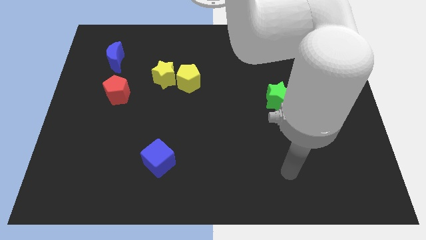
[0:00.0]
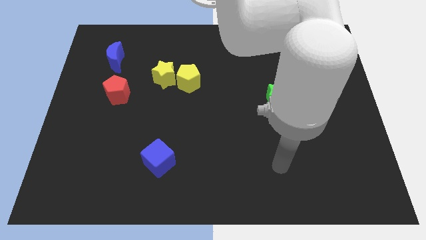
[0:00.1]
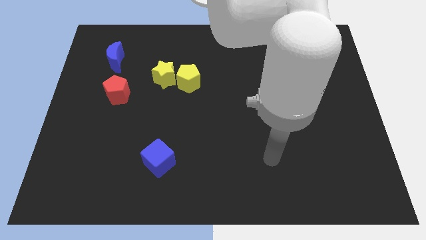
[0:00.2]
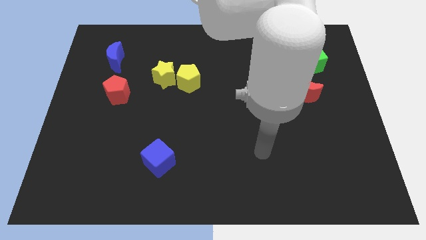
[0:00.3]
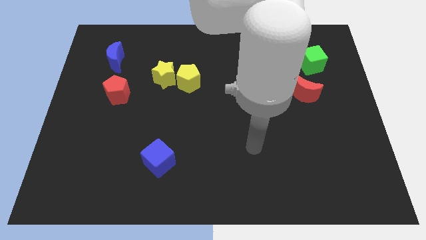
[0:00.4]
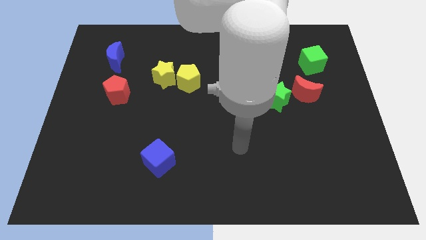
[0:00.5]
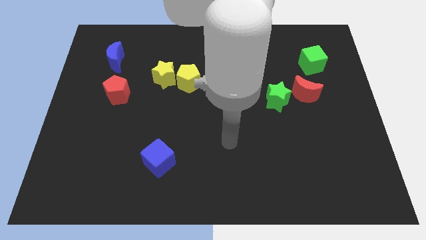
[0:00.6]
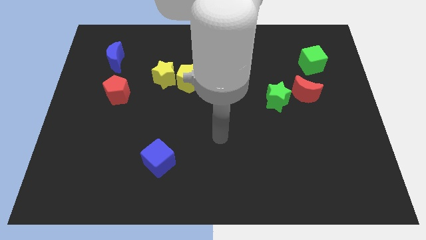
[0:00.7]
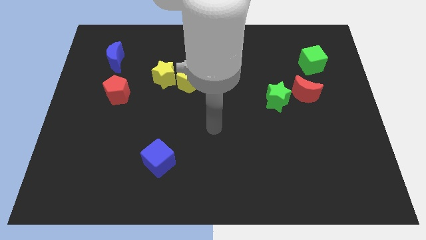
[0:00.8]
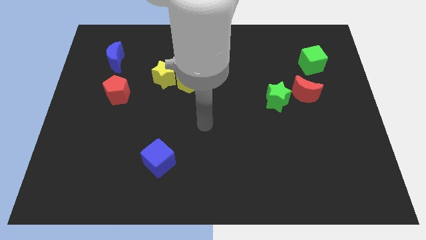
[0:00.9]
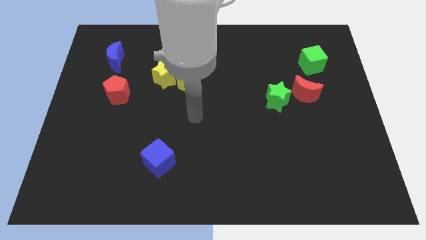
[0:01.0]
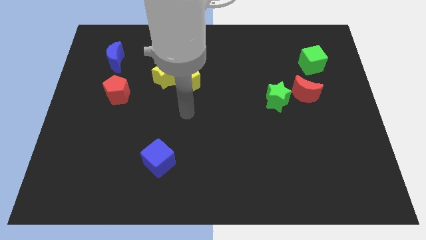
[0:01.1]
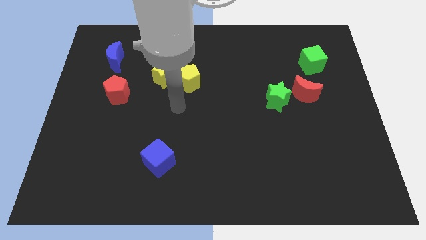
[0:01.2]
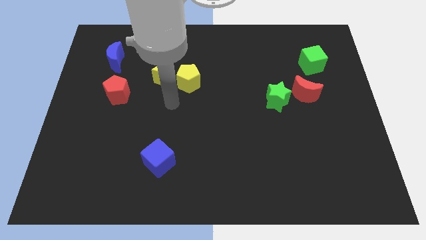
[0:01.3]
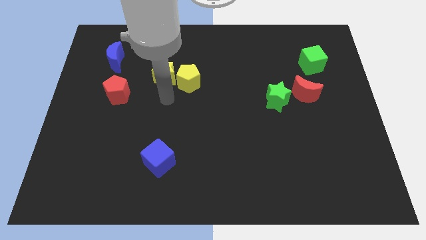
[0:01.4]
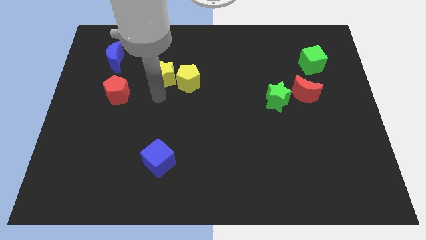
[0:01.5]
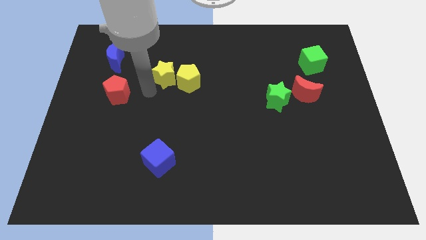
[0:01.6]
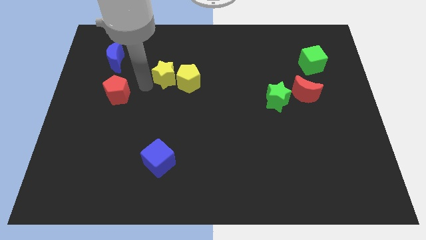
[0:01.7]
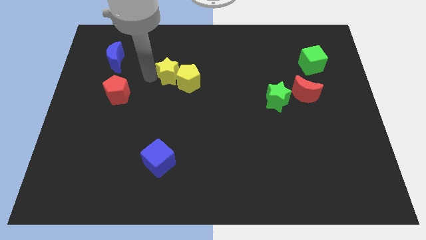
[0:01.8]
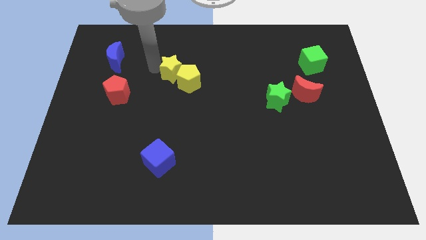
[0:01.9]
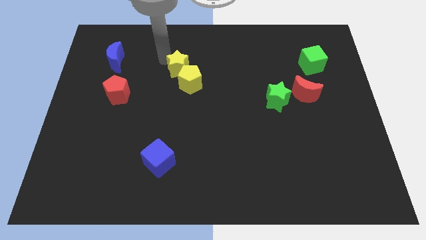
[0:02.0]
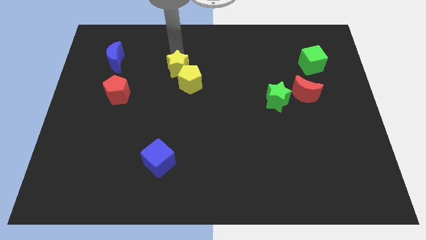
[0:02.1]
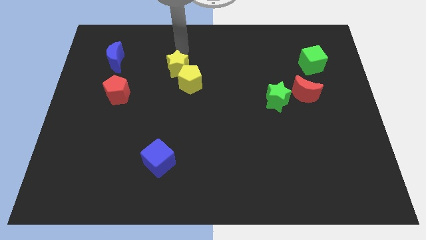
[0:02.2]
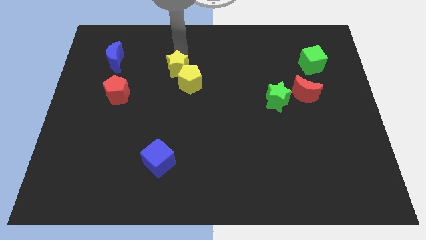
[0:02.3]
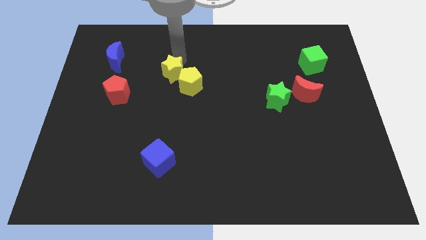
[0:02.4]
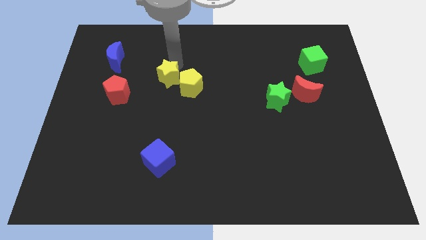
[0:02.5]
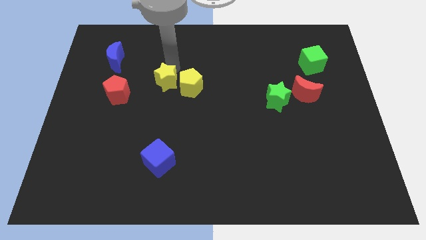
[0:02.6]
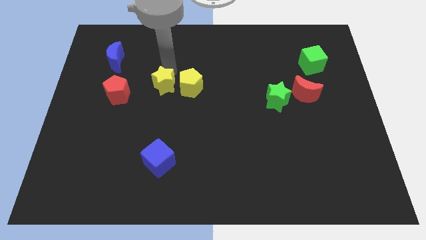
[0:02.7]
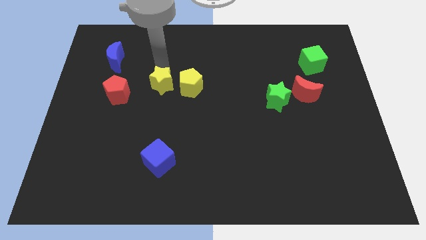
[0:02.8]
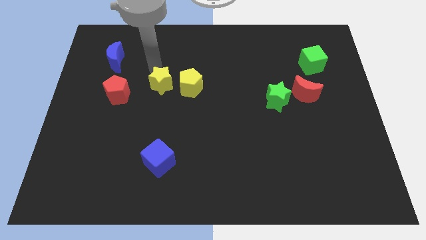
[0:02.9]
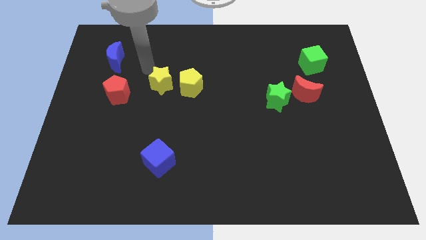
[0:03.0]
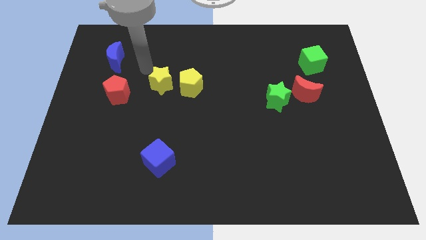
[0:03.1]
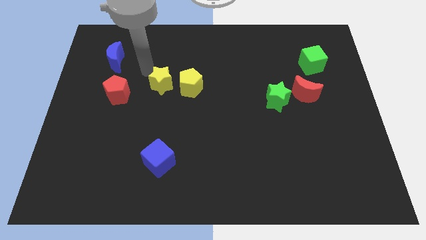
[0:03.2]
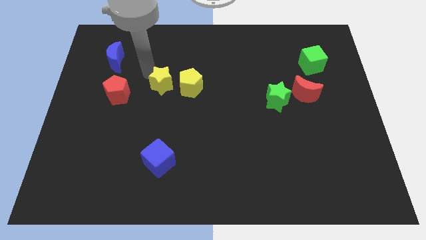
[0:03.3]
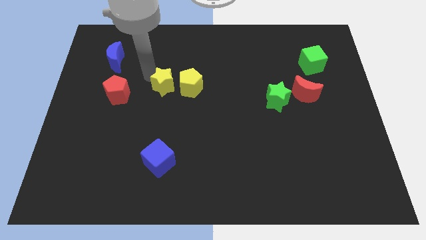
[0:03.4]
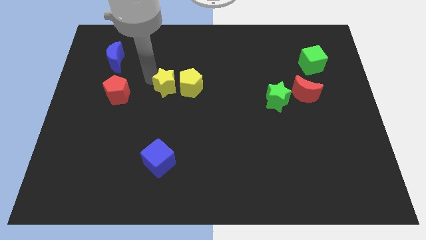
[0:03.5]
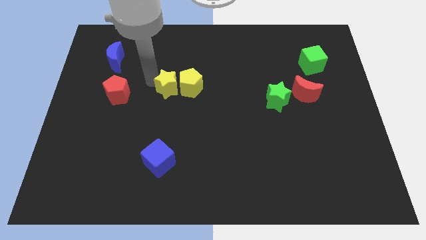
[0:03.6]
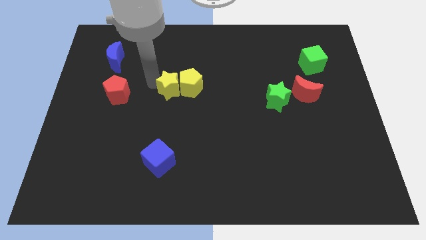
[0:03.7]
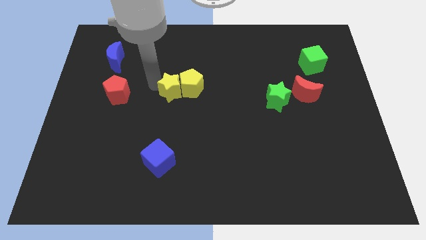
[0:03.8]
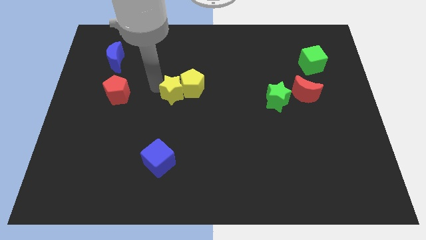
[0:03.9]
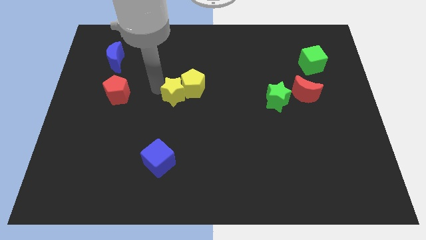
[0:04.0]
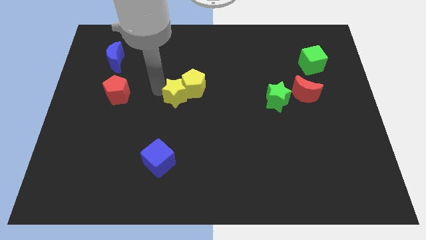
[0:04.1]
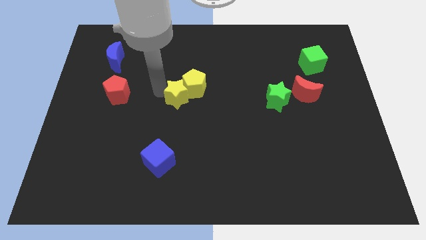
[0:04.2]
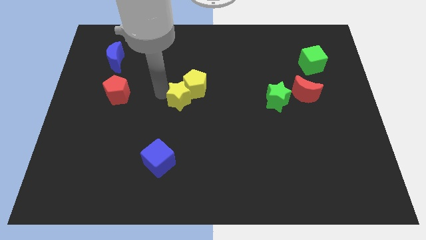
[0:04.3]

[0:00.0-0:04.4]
slightly push the yellow star diagonally downwards and to the right

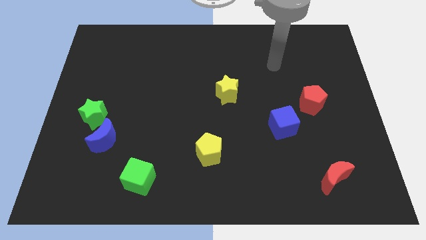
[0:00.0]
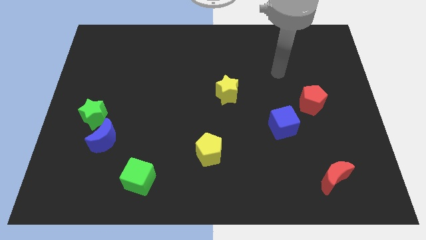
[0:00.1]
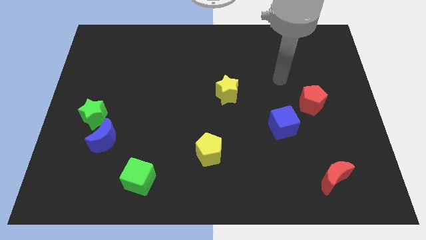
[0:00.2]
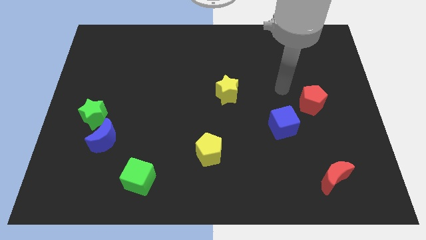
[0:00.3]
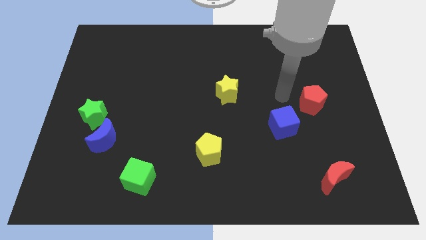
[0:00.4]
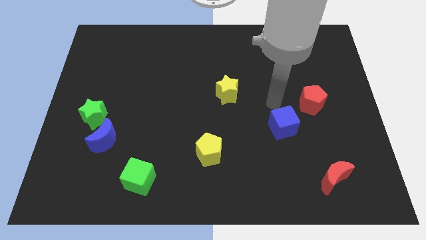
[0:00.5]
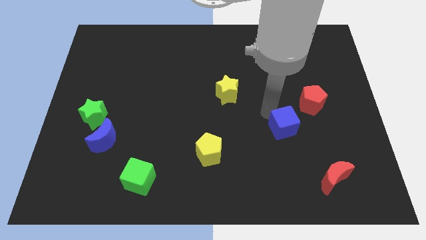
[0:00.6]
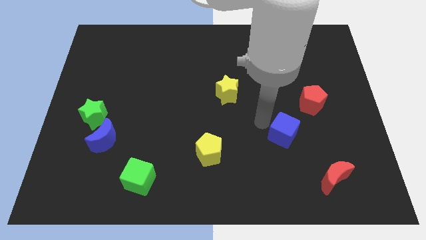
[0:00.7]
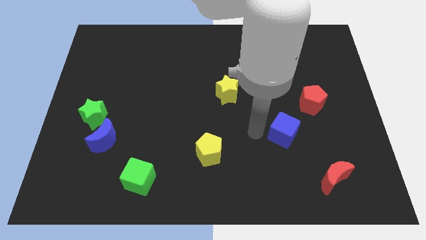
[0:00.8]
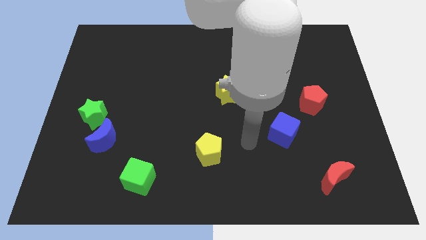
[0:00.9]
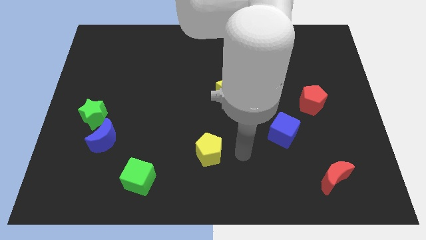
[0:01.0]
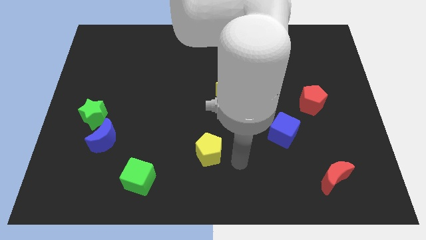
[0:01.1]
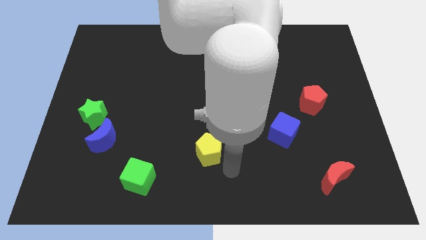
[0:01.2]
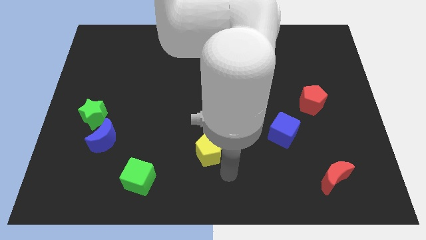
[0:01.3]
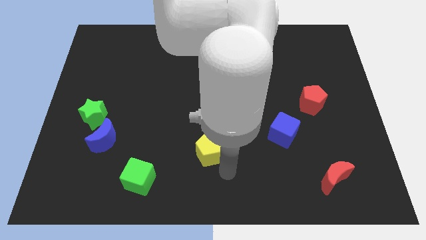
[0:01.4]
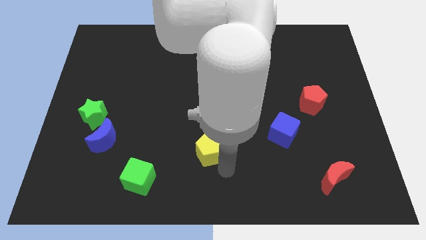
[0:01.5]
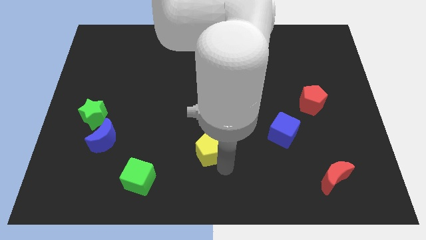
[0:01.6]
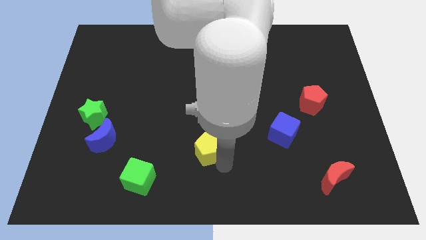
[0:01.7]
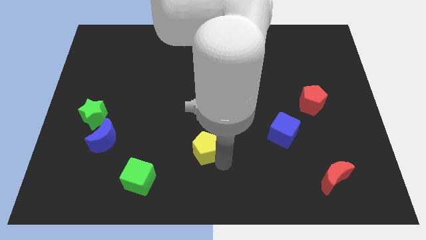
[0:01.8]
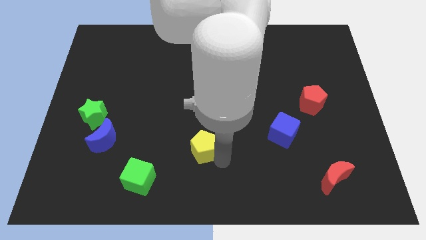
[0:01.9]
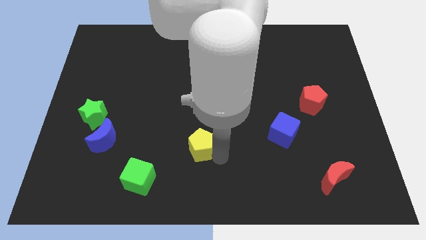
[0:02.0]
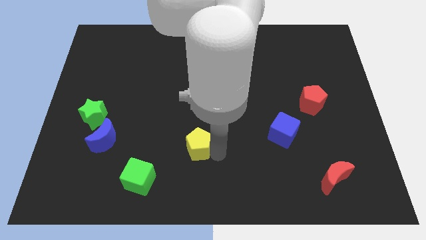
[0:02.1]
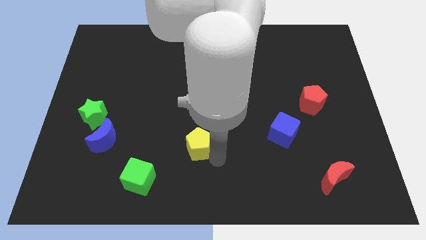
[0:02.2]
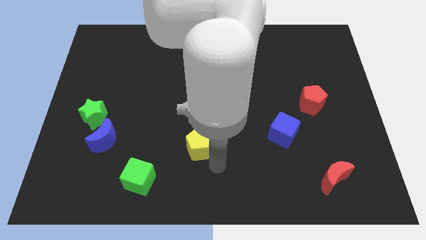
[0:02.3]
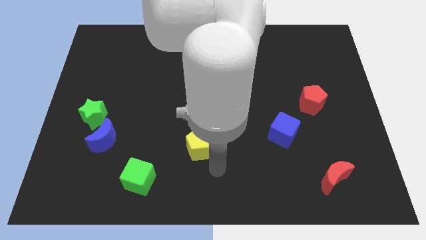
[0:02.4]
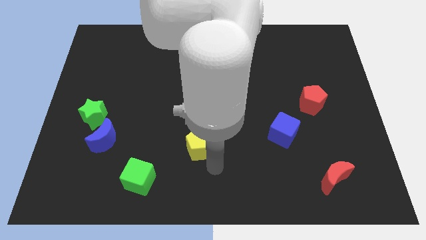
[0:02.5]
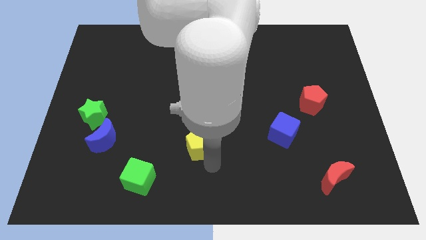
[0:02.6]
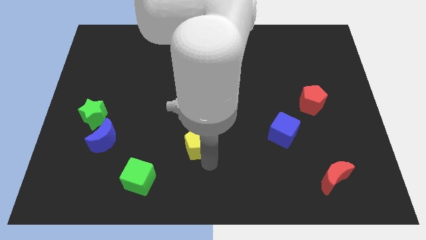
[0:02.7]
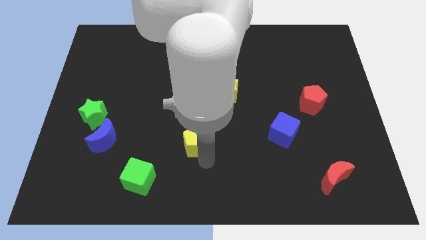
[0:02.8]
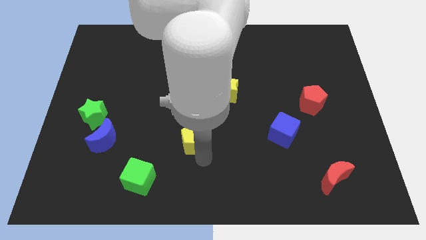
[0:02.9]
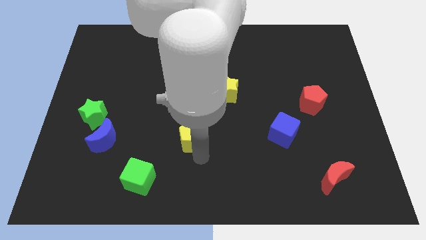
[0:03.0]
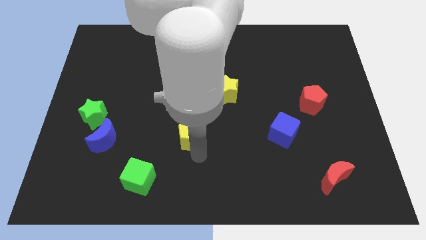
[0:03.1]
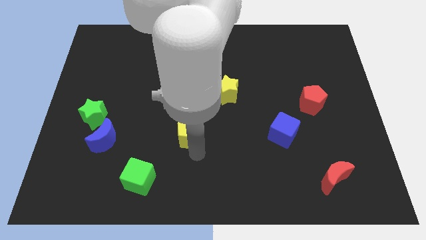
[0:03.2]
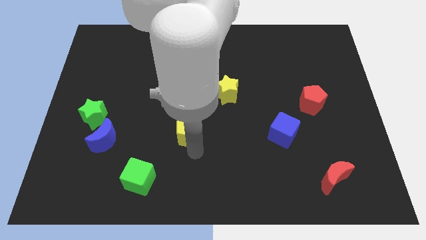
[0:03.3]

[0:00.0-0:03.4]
slide the yellow pentagon slightly upwards and left

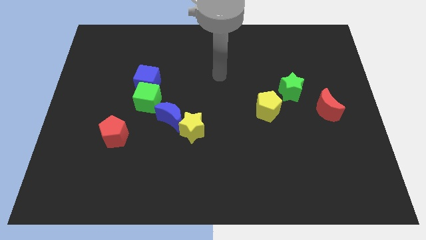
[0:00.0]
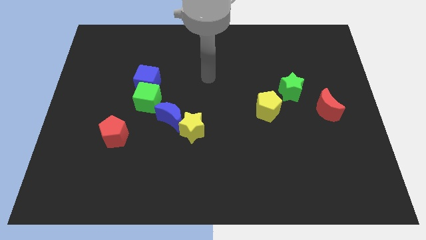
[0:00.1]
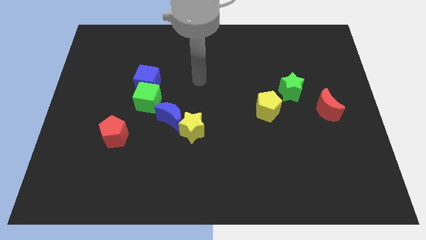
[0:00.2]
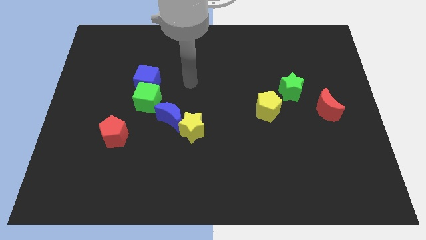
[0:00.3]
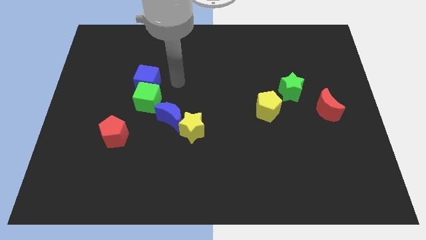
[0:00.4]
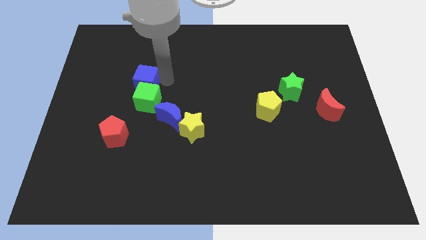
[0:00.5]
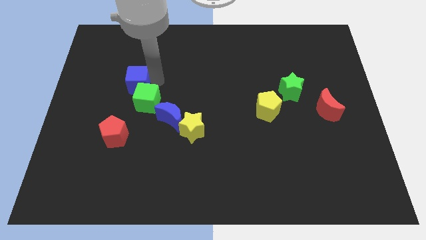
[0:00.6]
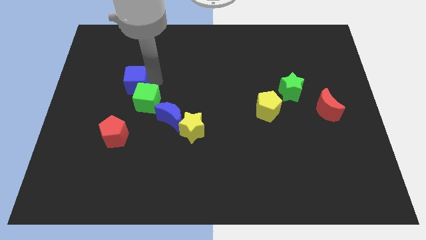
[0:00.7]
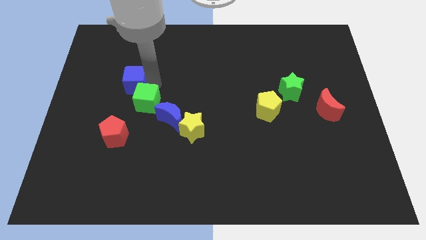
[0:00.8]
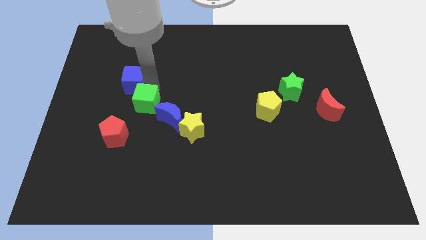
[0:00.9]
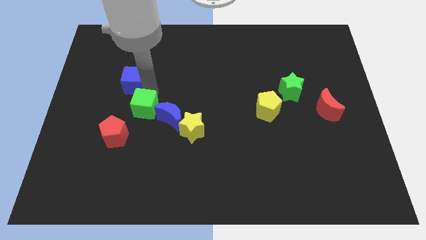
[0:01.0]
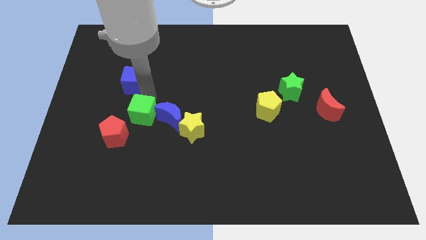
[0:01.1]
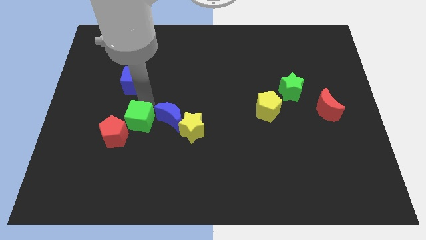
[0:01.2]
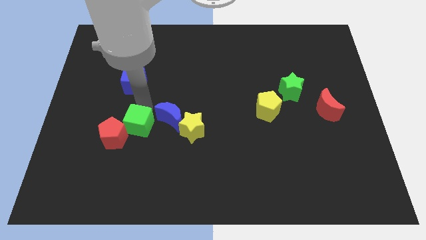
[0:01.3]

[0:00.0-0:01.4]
move the green cube a bit downwards
